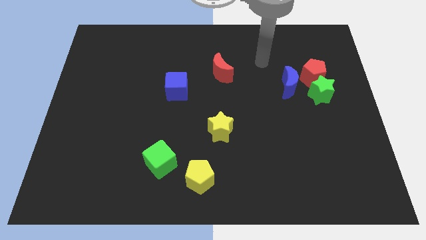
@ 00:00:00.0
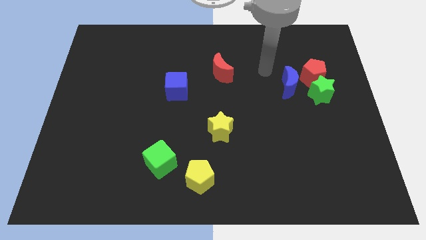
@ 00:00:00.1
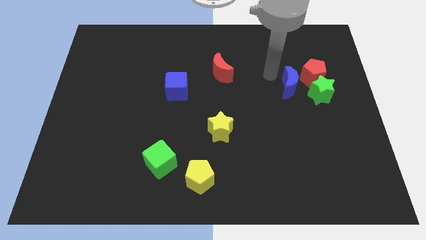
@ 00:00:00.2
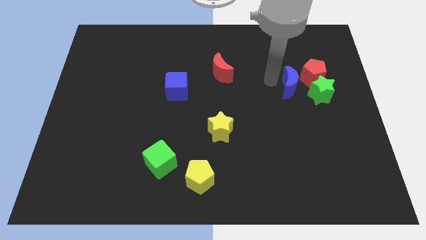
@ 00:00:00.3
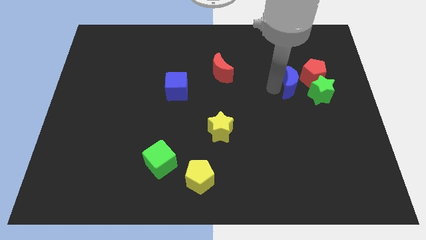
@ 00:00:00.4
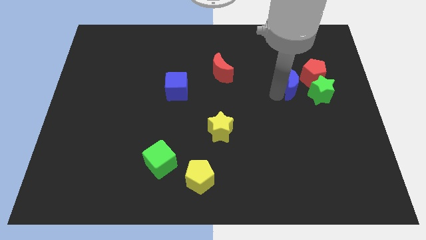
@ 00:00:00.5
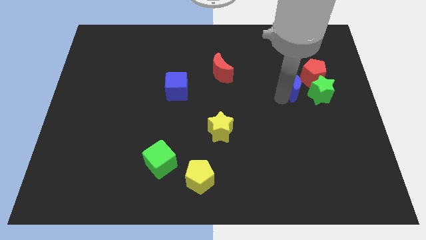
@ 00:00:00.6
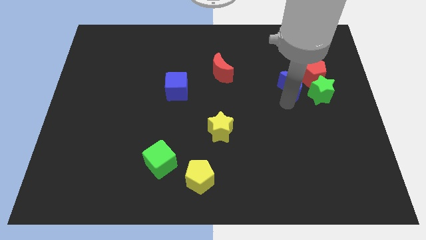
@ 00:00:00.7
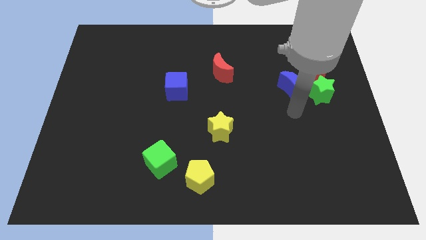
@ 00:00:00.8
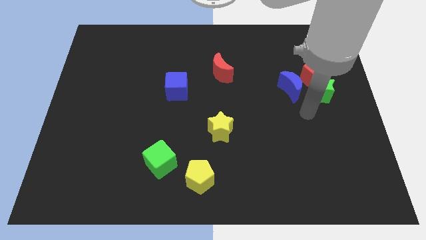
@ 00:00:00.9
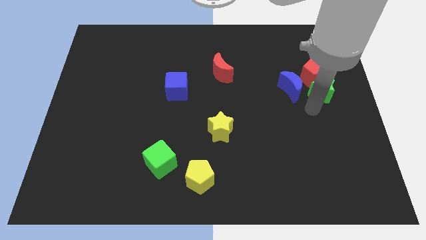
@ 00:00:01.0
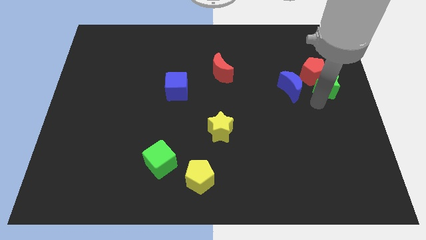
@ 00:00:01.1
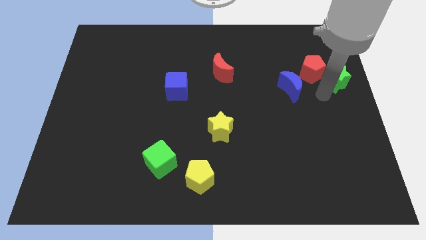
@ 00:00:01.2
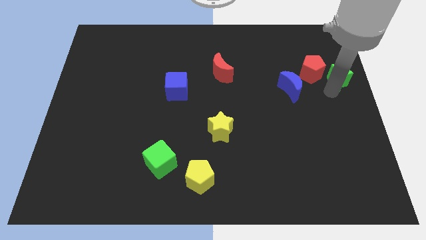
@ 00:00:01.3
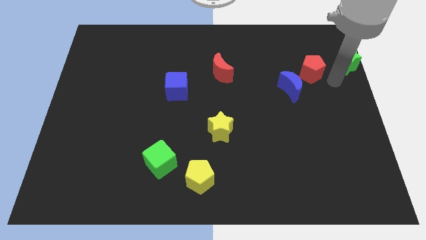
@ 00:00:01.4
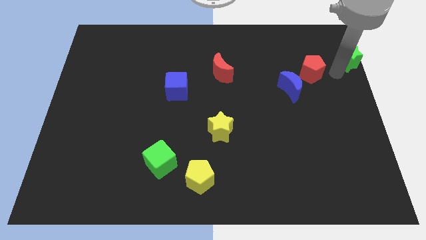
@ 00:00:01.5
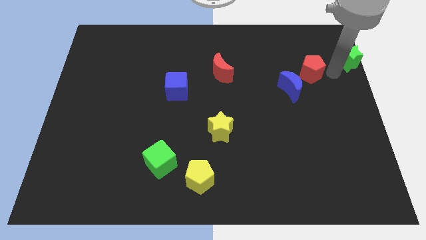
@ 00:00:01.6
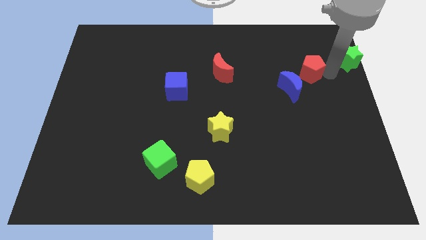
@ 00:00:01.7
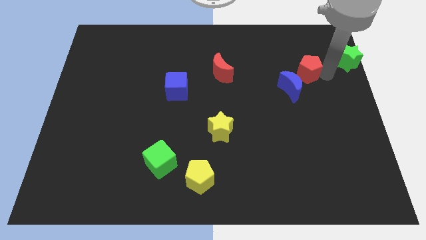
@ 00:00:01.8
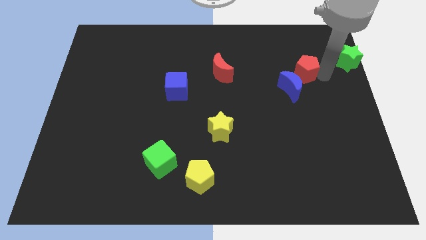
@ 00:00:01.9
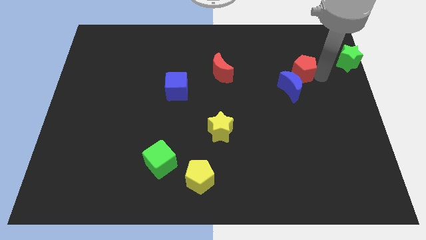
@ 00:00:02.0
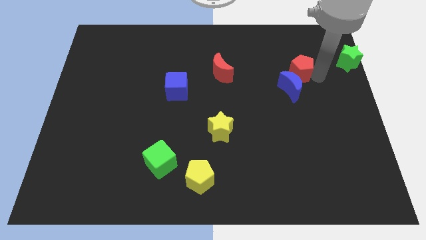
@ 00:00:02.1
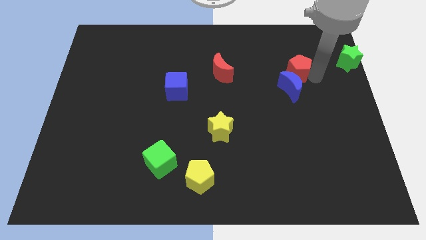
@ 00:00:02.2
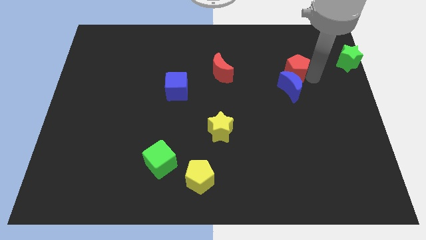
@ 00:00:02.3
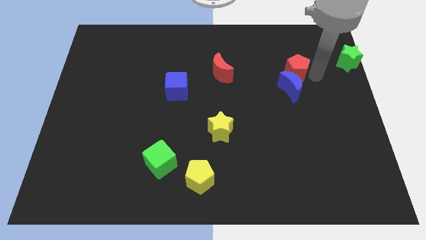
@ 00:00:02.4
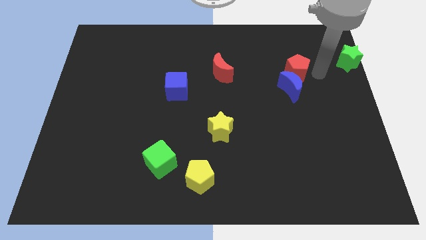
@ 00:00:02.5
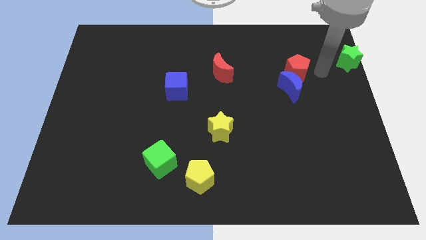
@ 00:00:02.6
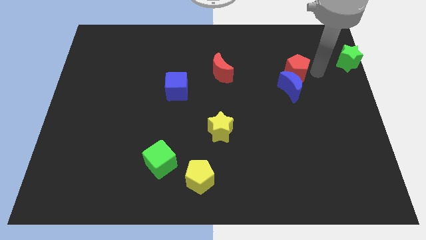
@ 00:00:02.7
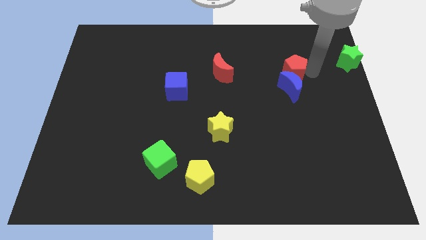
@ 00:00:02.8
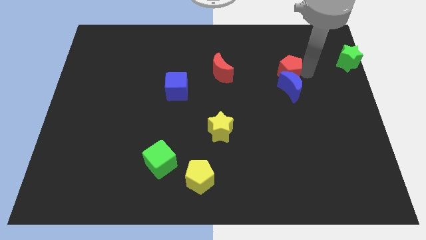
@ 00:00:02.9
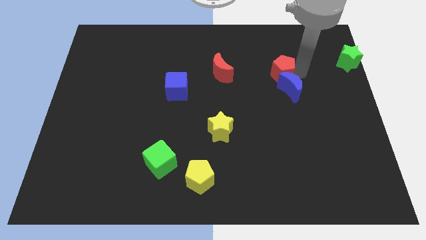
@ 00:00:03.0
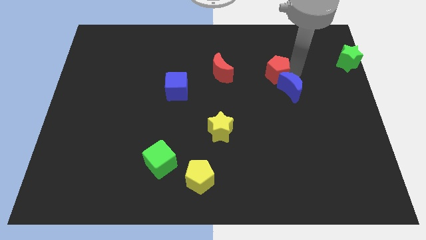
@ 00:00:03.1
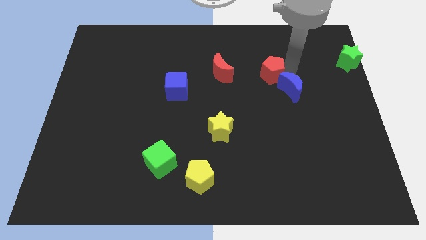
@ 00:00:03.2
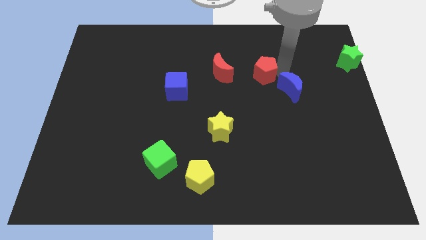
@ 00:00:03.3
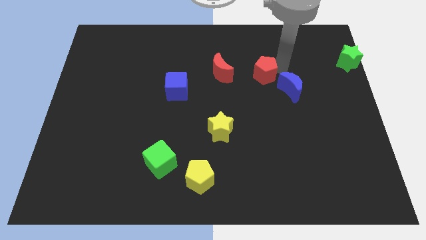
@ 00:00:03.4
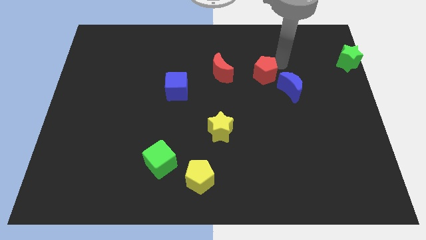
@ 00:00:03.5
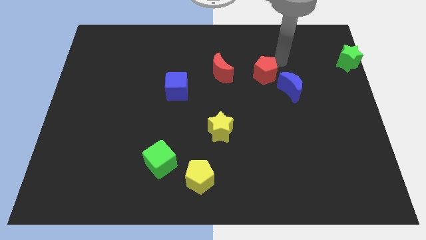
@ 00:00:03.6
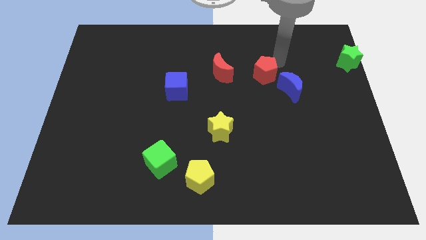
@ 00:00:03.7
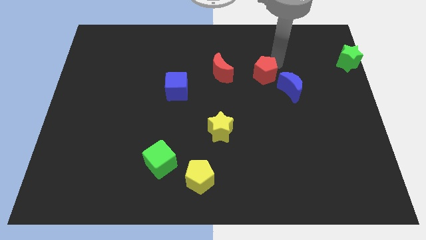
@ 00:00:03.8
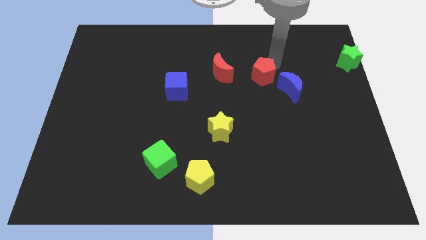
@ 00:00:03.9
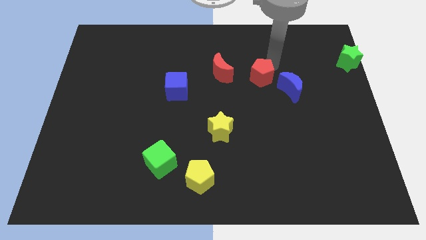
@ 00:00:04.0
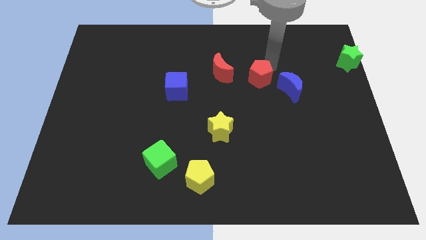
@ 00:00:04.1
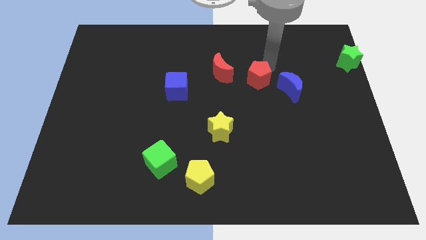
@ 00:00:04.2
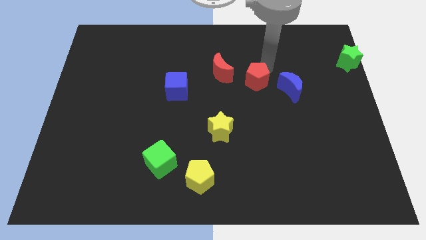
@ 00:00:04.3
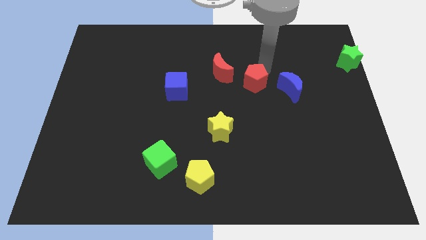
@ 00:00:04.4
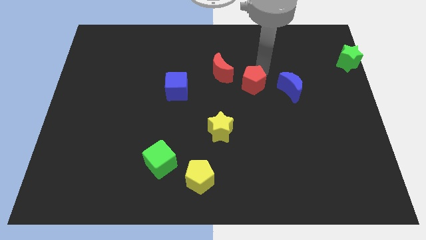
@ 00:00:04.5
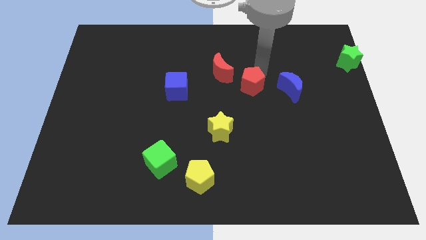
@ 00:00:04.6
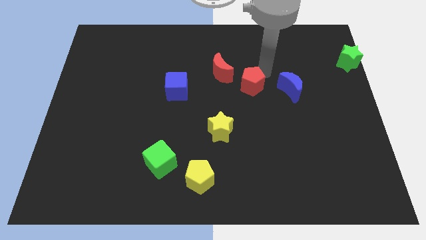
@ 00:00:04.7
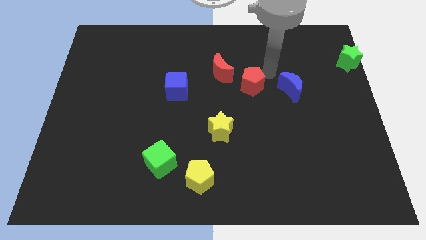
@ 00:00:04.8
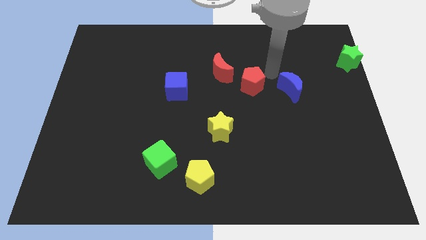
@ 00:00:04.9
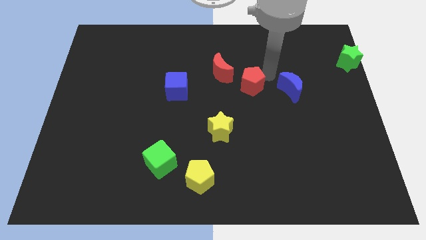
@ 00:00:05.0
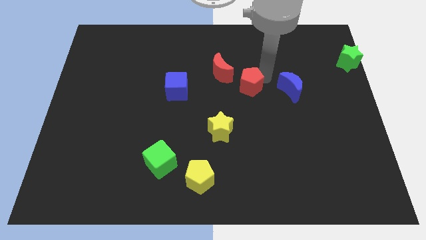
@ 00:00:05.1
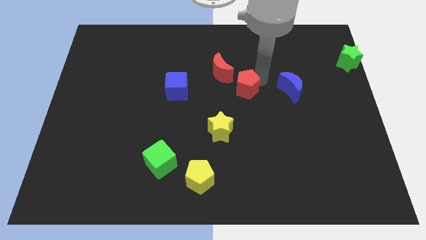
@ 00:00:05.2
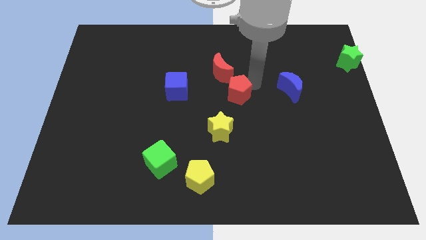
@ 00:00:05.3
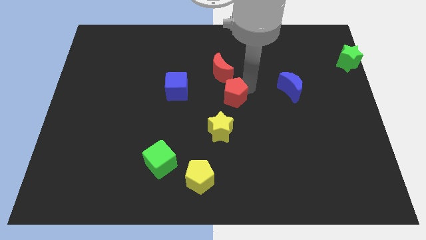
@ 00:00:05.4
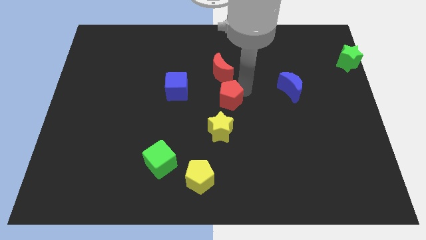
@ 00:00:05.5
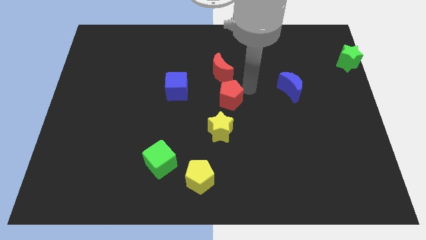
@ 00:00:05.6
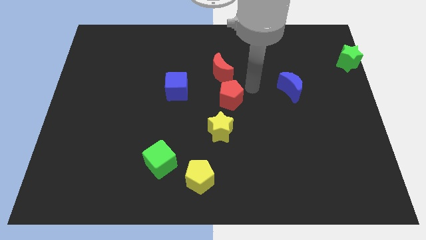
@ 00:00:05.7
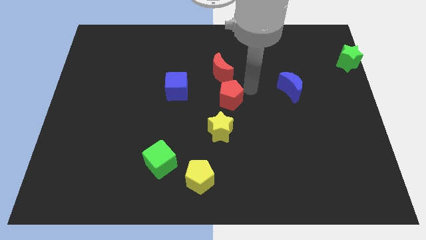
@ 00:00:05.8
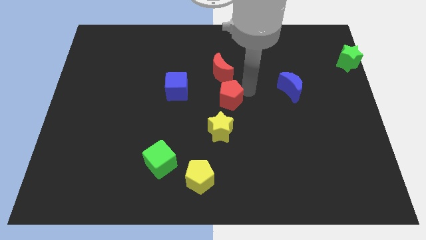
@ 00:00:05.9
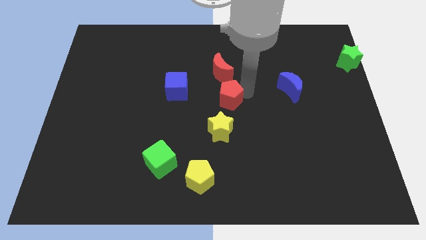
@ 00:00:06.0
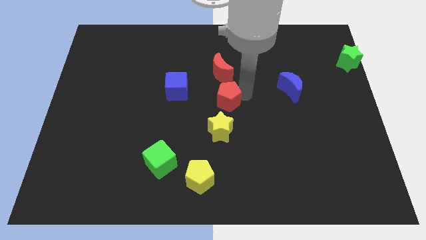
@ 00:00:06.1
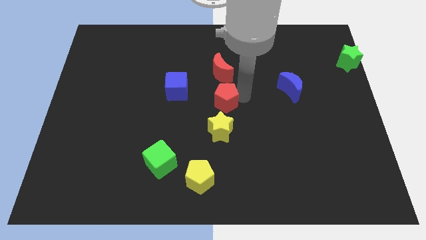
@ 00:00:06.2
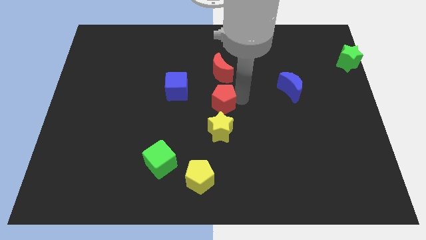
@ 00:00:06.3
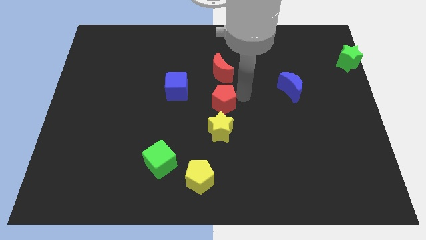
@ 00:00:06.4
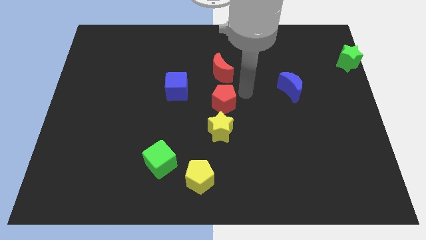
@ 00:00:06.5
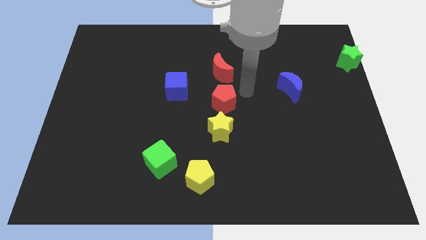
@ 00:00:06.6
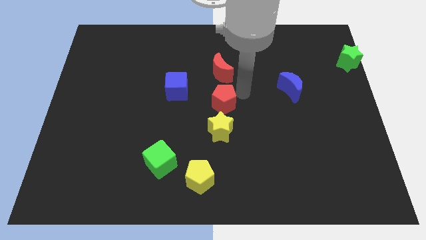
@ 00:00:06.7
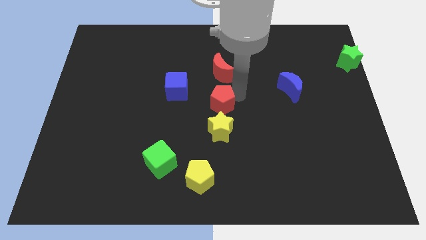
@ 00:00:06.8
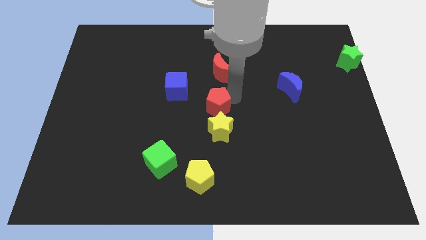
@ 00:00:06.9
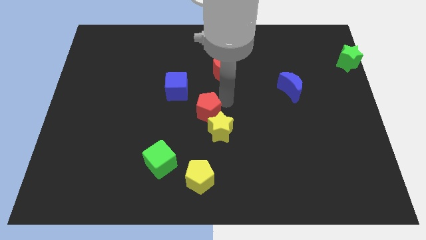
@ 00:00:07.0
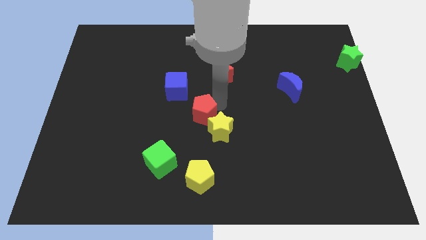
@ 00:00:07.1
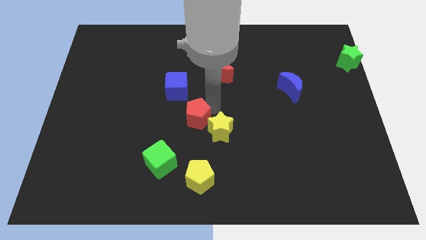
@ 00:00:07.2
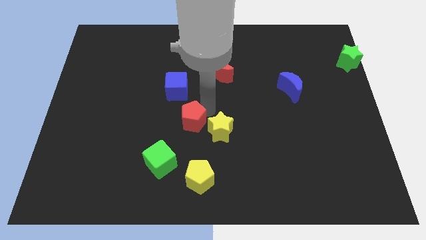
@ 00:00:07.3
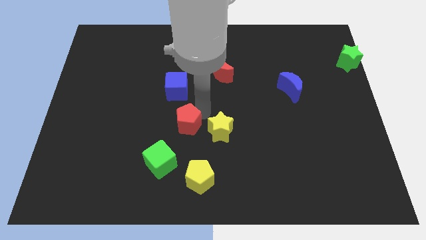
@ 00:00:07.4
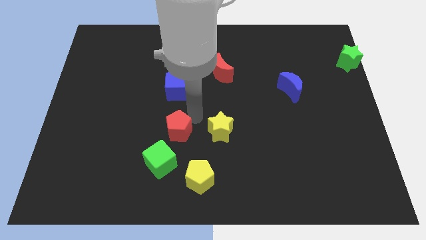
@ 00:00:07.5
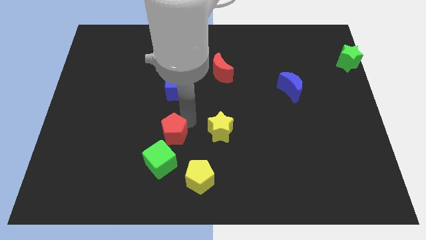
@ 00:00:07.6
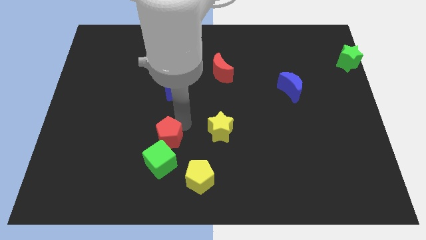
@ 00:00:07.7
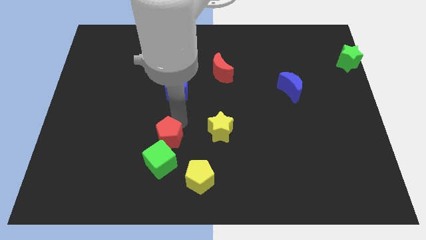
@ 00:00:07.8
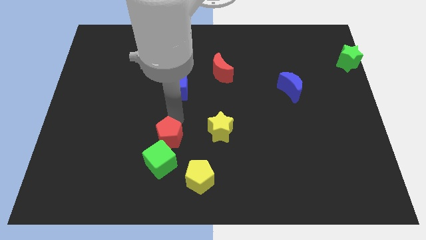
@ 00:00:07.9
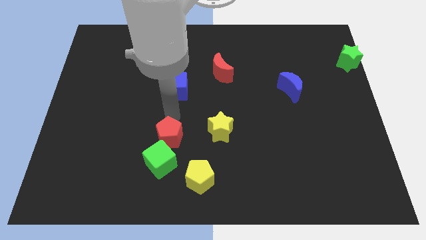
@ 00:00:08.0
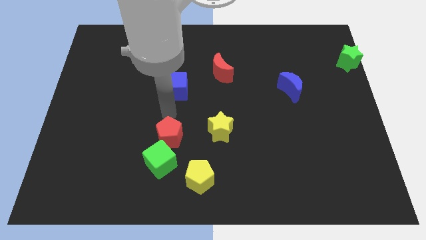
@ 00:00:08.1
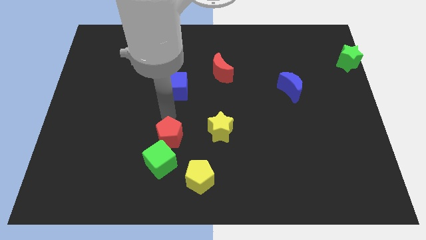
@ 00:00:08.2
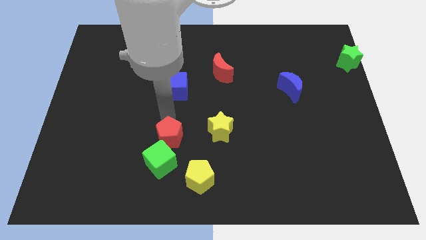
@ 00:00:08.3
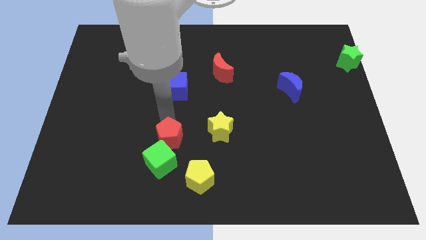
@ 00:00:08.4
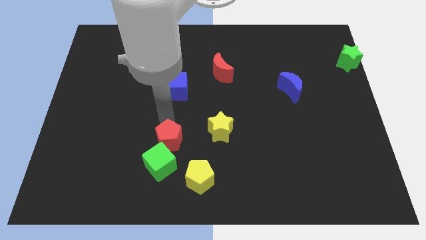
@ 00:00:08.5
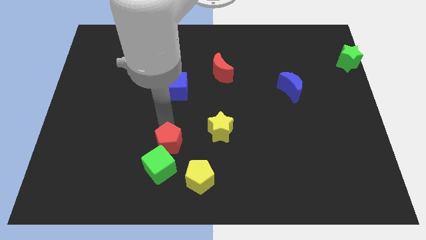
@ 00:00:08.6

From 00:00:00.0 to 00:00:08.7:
slide the red pentagon towards the green cube
